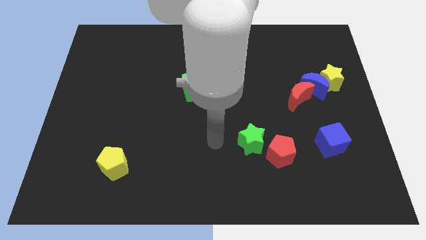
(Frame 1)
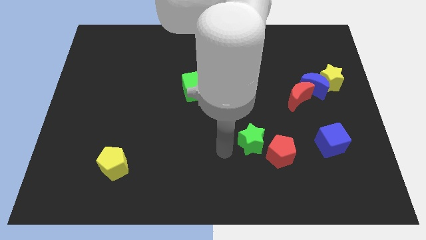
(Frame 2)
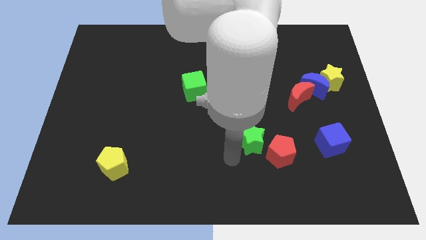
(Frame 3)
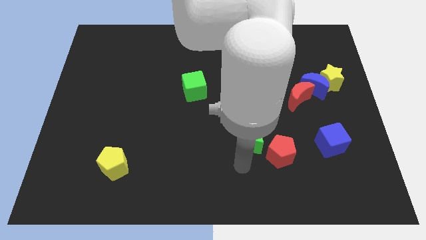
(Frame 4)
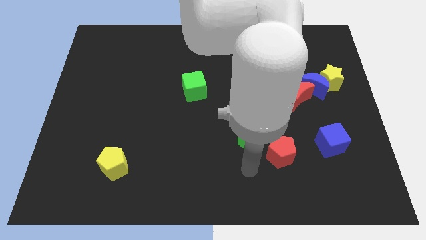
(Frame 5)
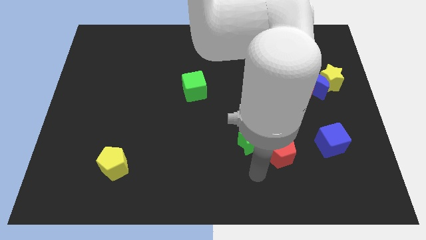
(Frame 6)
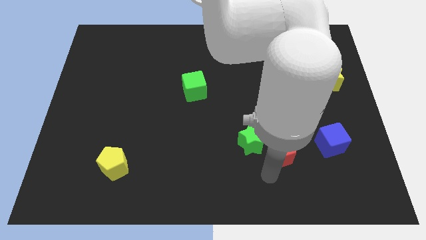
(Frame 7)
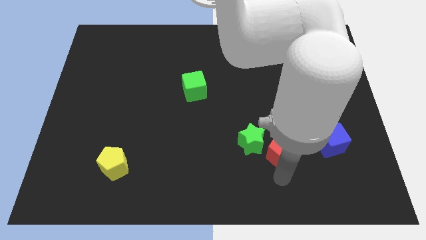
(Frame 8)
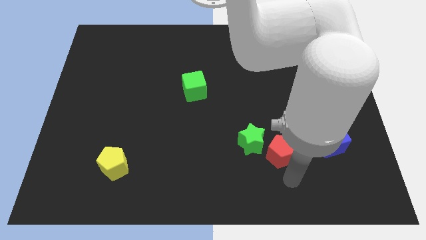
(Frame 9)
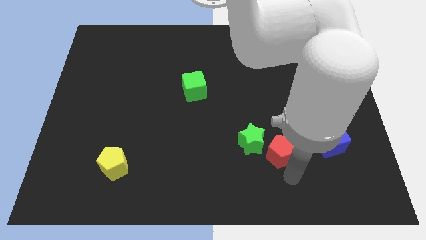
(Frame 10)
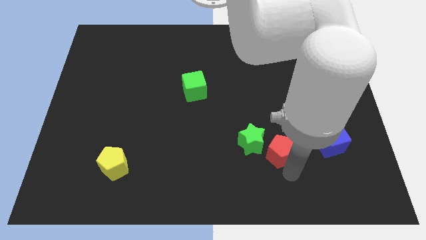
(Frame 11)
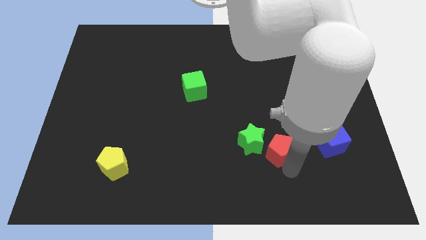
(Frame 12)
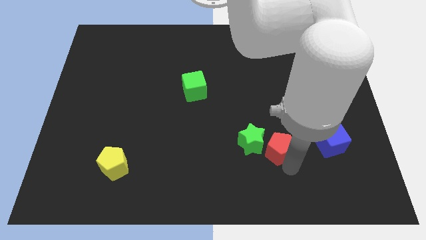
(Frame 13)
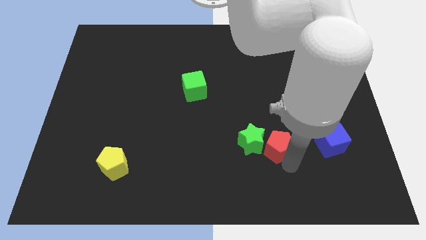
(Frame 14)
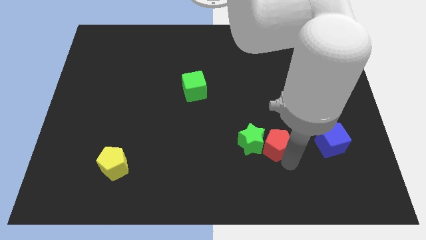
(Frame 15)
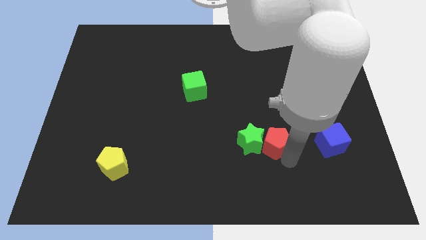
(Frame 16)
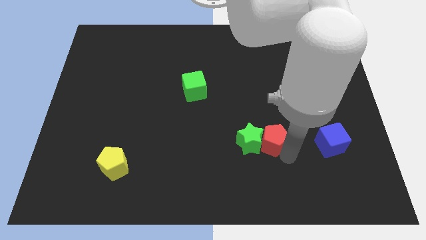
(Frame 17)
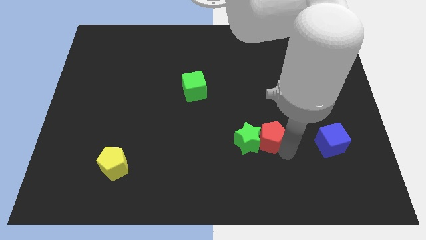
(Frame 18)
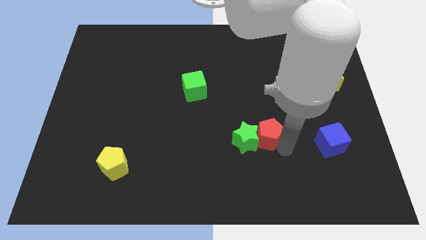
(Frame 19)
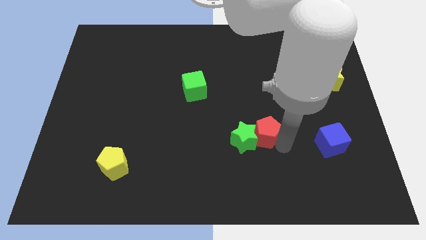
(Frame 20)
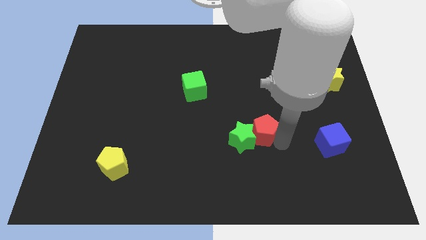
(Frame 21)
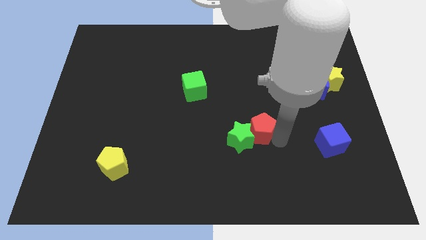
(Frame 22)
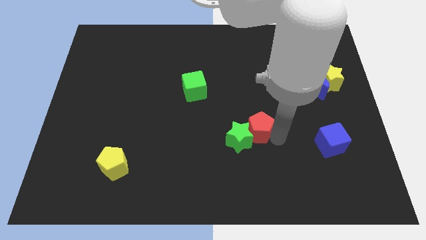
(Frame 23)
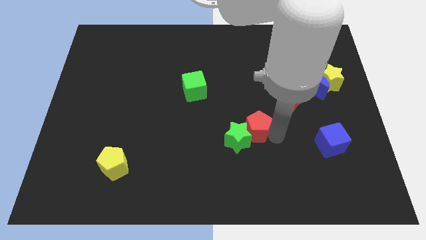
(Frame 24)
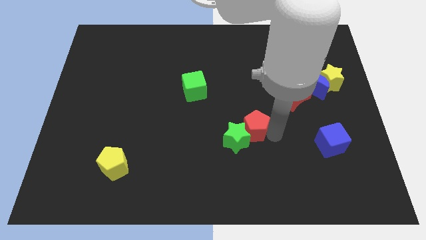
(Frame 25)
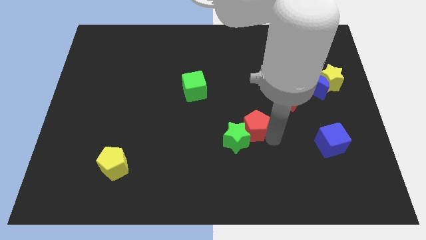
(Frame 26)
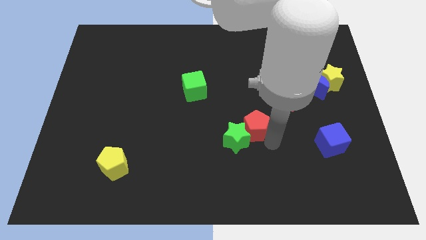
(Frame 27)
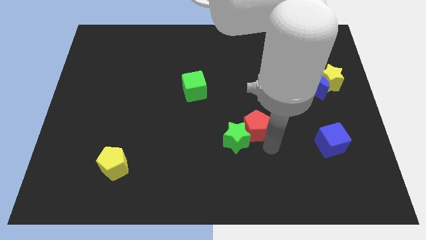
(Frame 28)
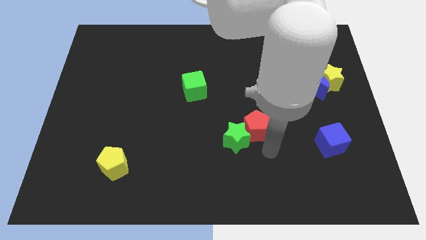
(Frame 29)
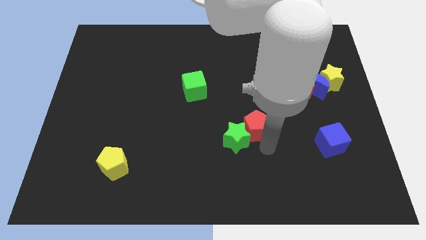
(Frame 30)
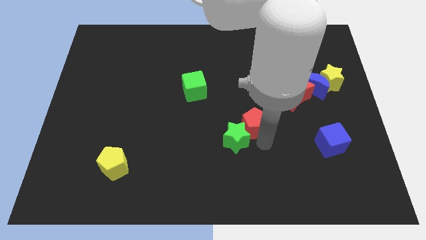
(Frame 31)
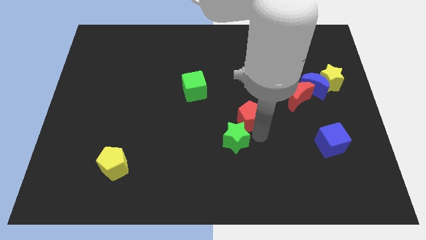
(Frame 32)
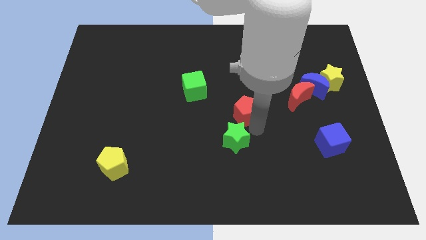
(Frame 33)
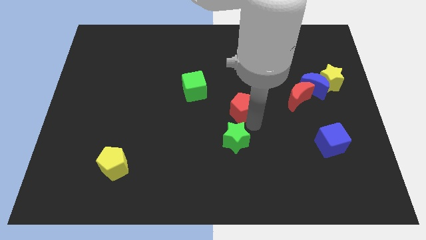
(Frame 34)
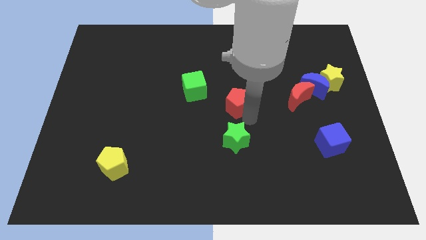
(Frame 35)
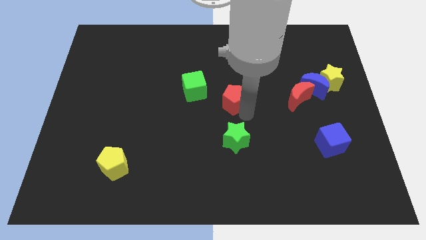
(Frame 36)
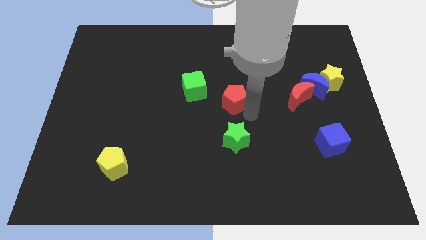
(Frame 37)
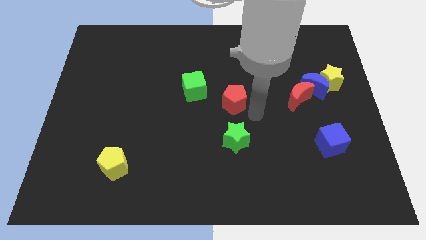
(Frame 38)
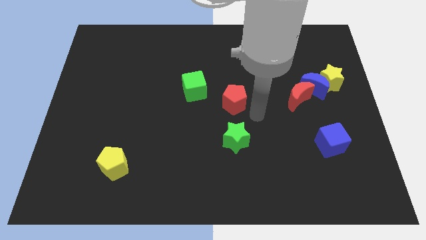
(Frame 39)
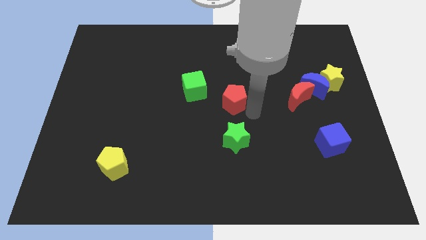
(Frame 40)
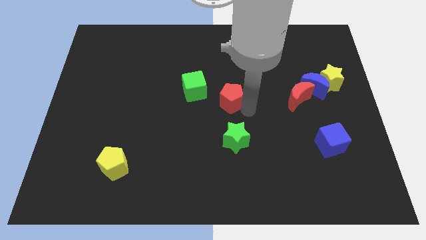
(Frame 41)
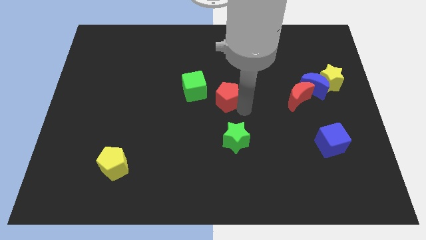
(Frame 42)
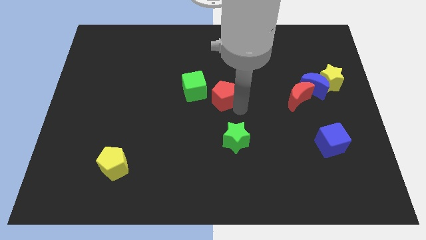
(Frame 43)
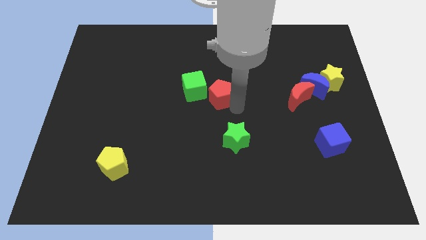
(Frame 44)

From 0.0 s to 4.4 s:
move the red pentagon up and to the left

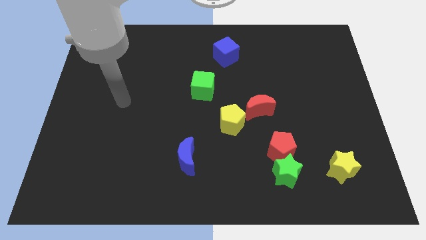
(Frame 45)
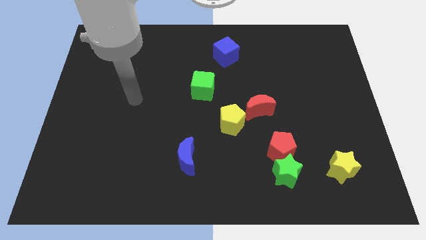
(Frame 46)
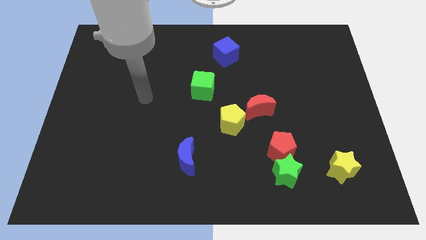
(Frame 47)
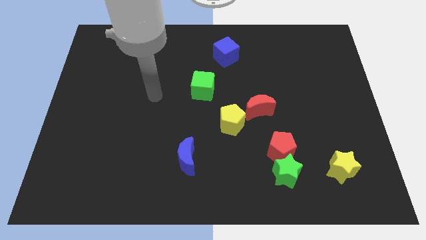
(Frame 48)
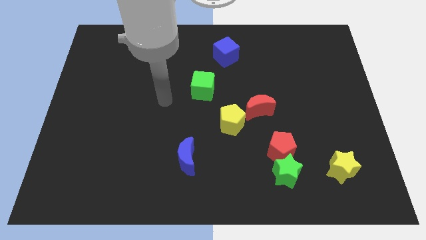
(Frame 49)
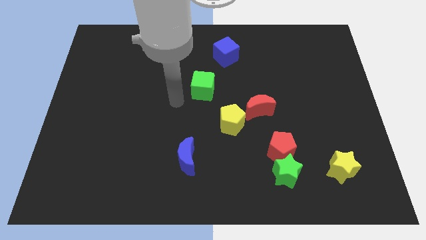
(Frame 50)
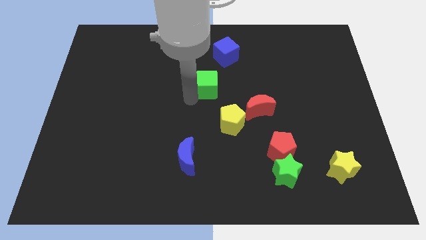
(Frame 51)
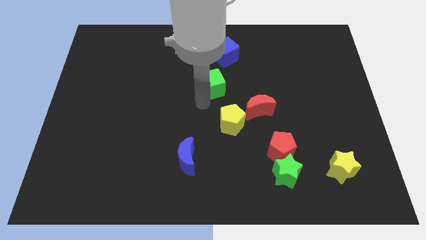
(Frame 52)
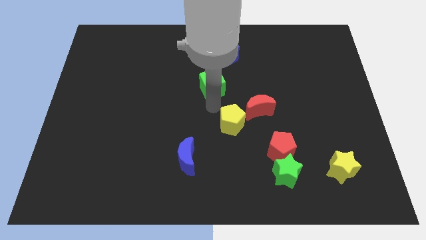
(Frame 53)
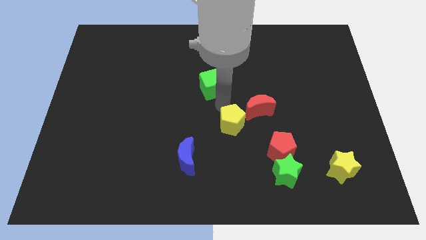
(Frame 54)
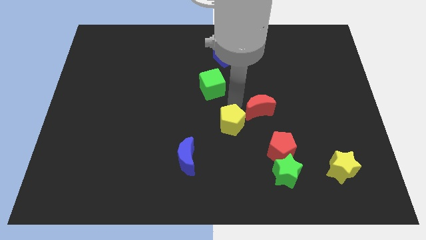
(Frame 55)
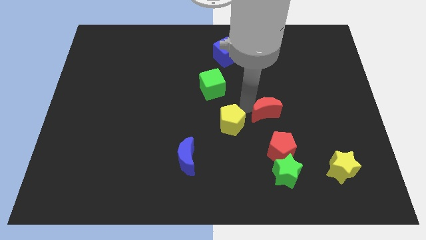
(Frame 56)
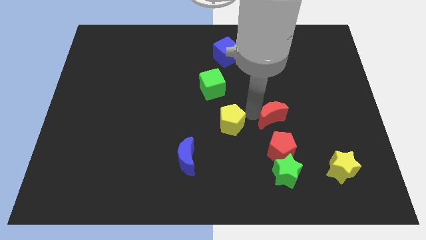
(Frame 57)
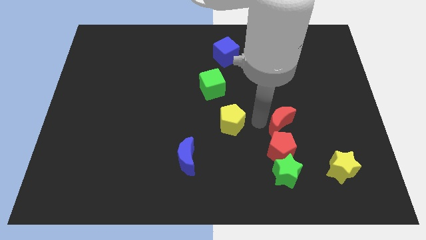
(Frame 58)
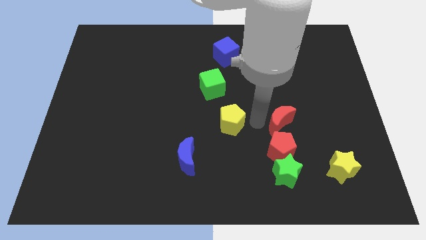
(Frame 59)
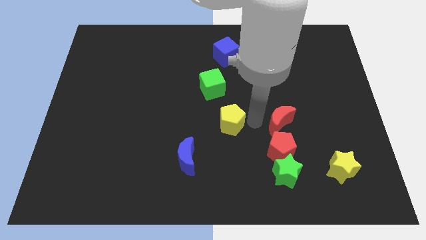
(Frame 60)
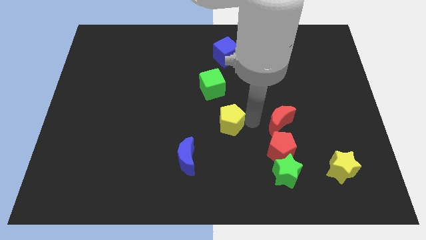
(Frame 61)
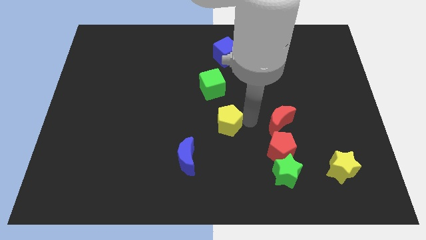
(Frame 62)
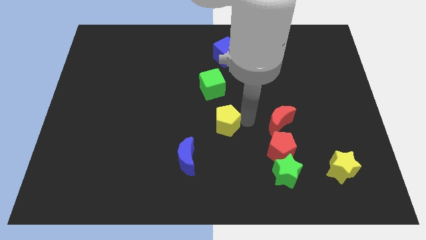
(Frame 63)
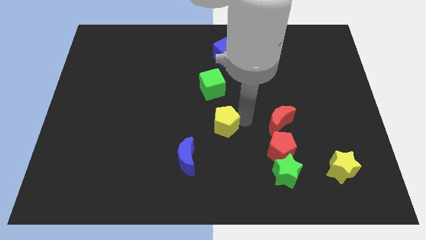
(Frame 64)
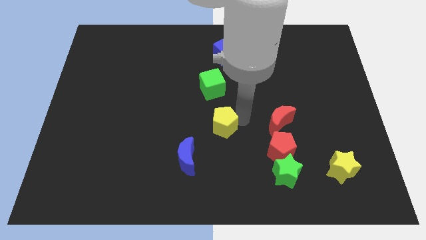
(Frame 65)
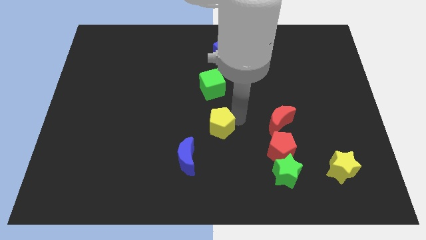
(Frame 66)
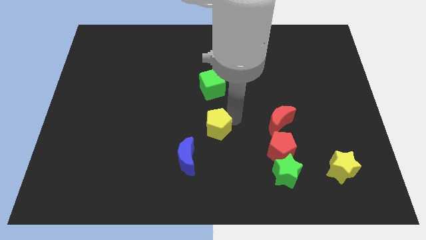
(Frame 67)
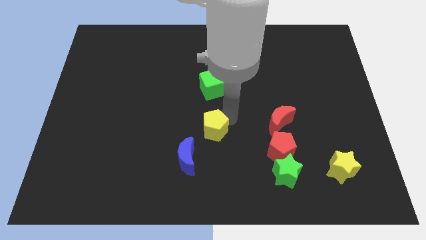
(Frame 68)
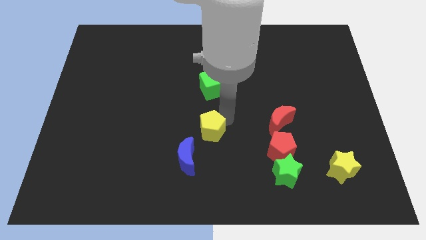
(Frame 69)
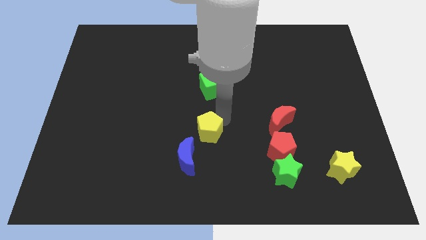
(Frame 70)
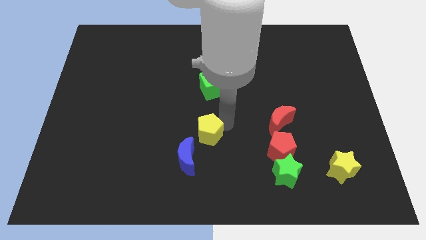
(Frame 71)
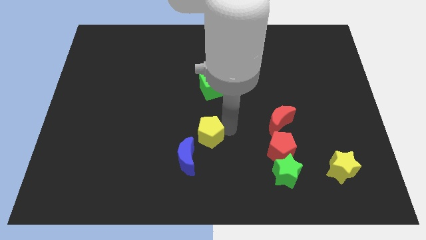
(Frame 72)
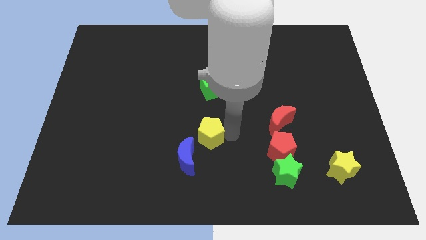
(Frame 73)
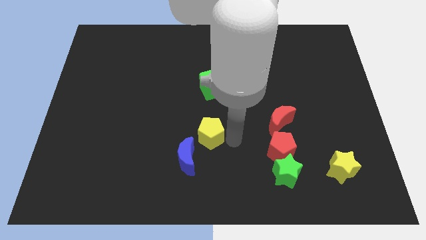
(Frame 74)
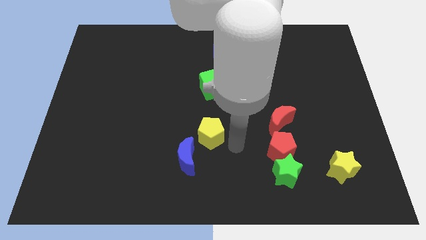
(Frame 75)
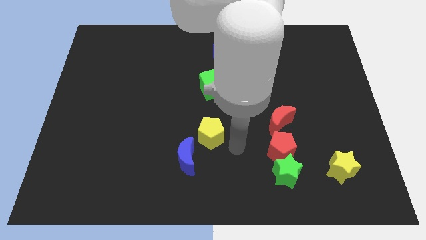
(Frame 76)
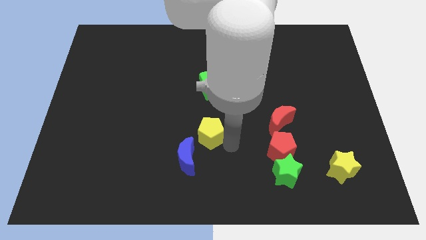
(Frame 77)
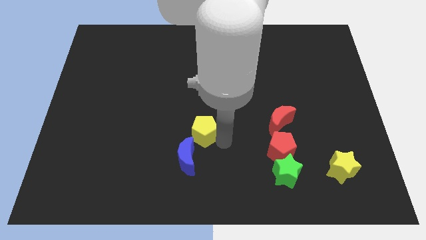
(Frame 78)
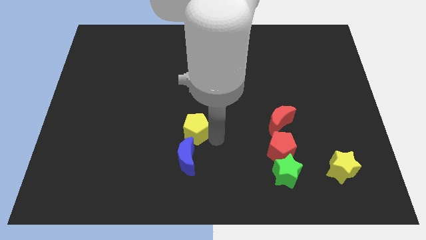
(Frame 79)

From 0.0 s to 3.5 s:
slightly slide the yellow pentagon left

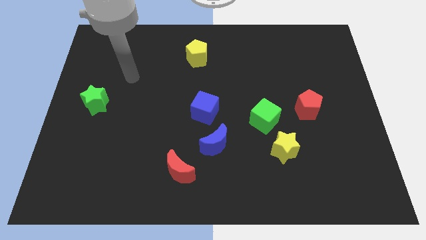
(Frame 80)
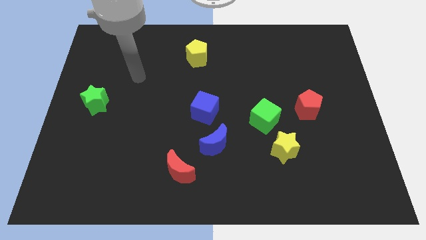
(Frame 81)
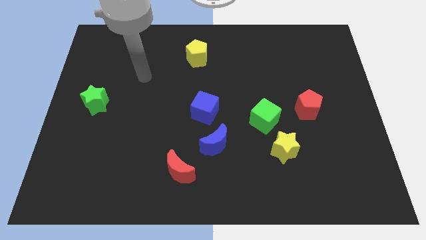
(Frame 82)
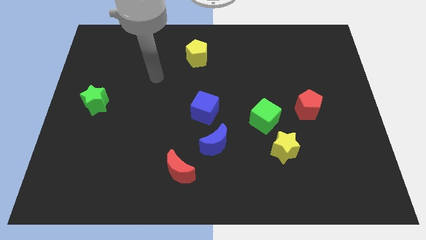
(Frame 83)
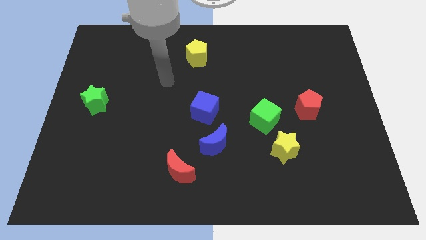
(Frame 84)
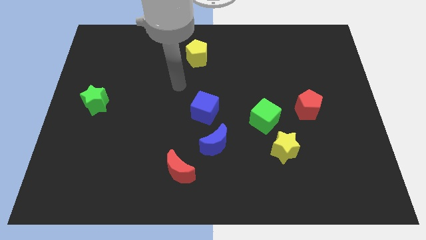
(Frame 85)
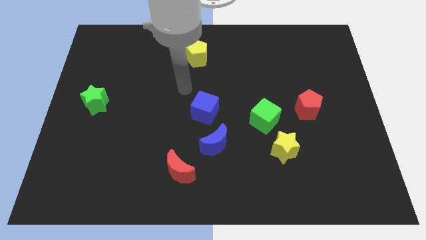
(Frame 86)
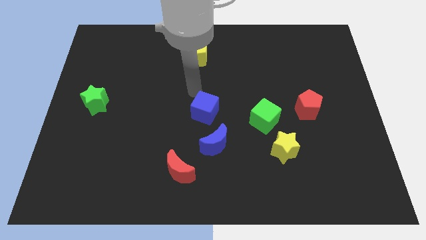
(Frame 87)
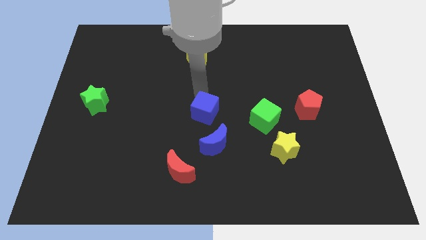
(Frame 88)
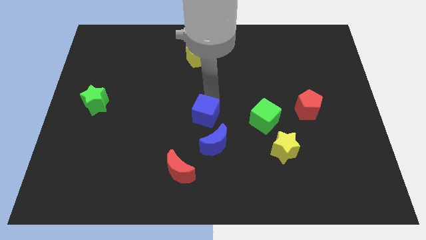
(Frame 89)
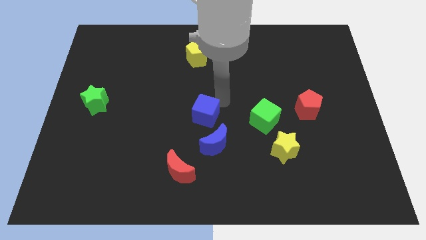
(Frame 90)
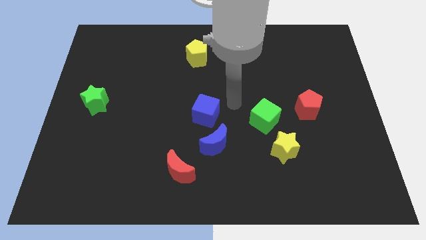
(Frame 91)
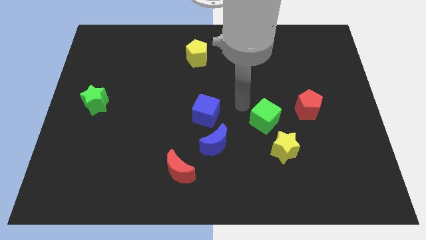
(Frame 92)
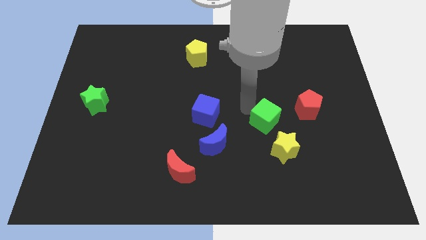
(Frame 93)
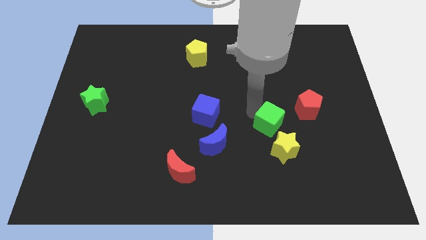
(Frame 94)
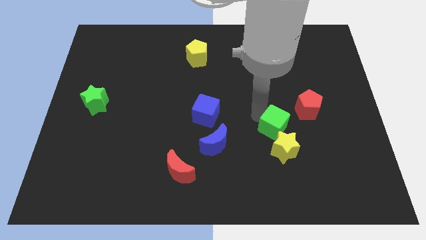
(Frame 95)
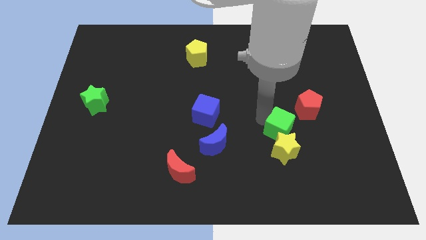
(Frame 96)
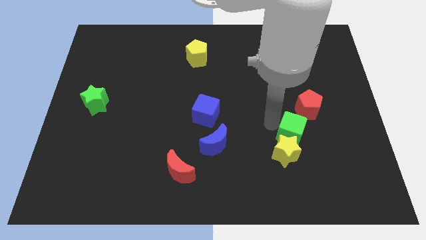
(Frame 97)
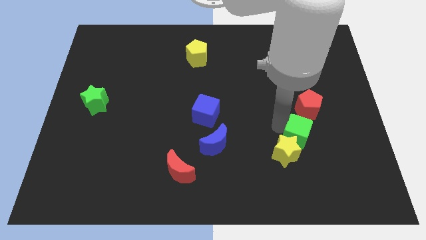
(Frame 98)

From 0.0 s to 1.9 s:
slightly push the green cube down and to the right diagonally
